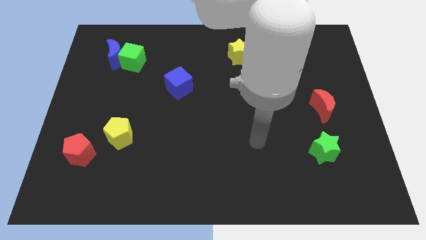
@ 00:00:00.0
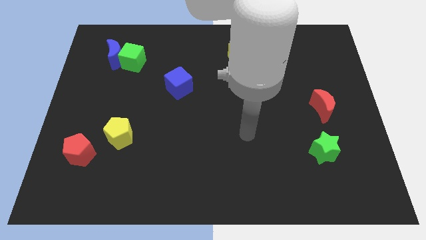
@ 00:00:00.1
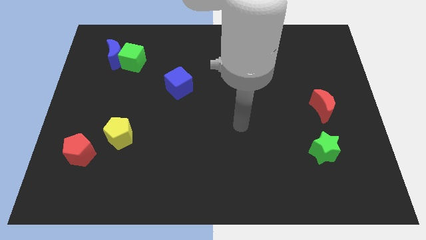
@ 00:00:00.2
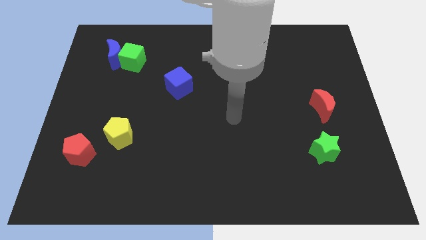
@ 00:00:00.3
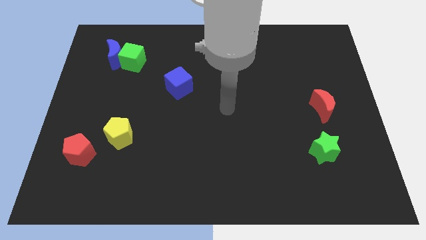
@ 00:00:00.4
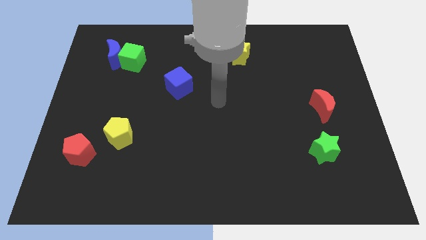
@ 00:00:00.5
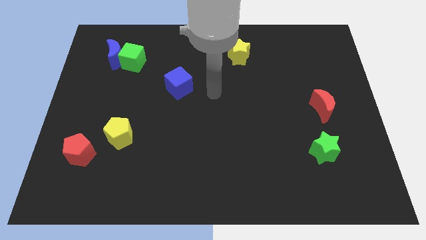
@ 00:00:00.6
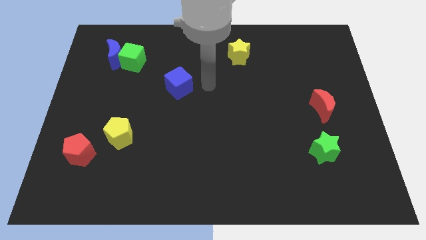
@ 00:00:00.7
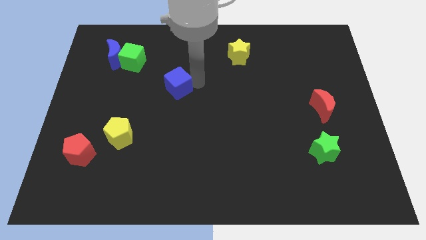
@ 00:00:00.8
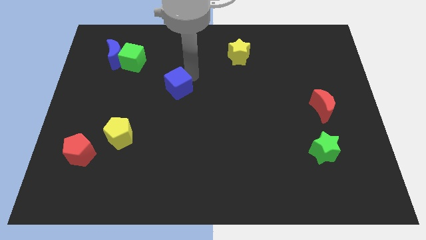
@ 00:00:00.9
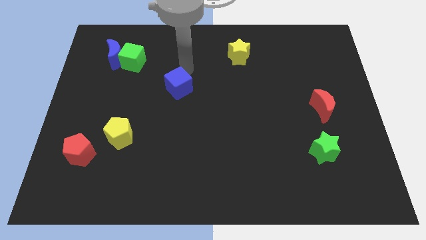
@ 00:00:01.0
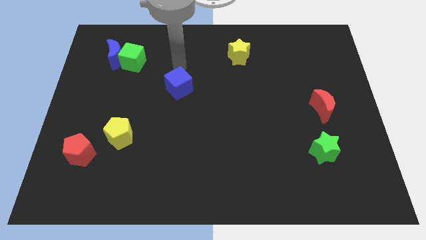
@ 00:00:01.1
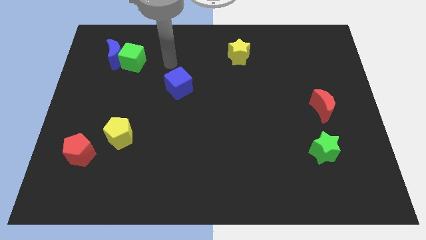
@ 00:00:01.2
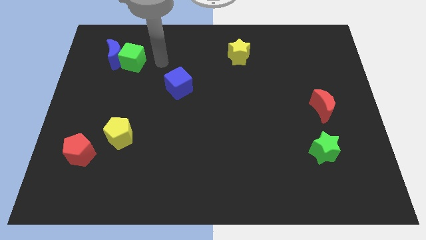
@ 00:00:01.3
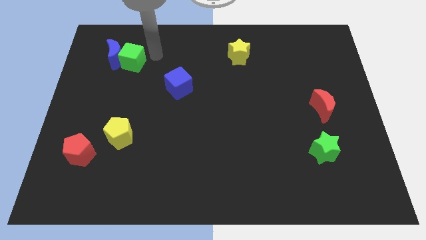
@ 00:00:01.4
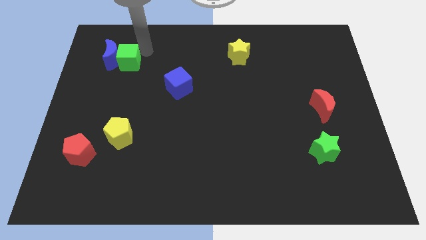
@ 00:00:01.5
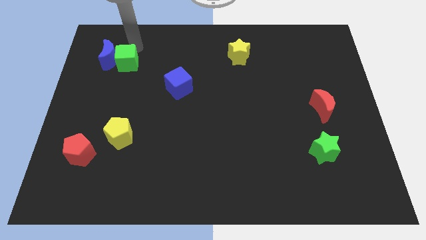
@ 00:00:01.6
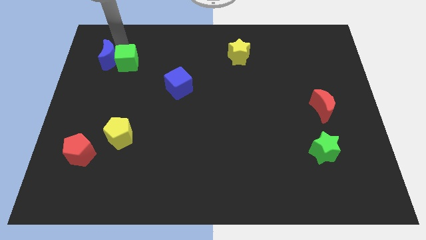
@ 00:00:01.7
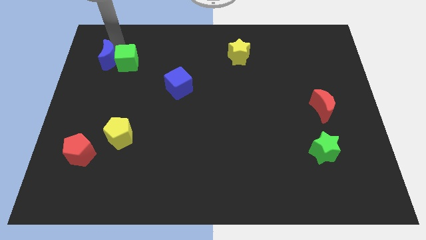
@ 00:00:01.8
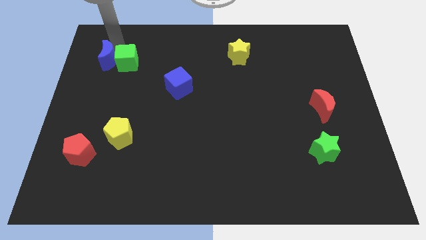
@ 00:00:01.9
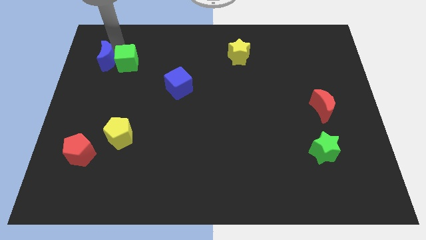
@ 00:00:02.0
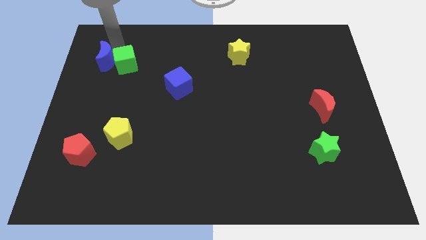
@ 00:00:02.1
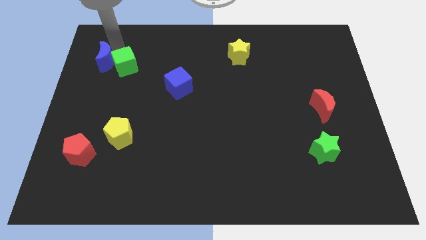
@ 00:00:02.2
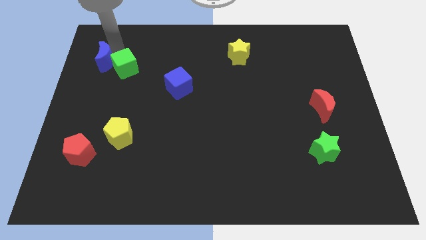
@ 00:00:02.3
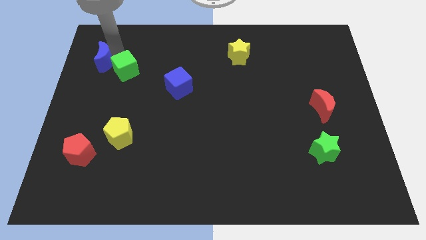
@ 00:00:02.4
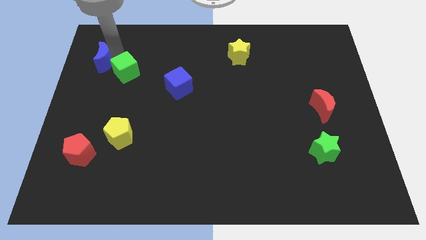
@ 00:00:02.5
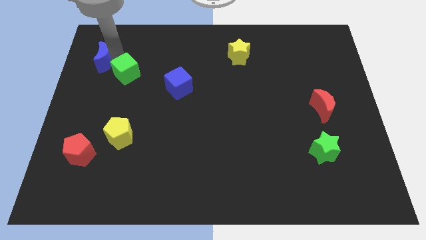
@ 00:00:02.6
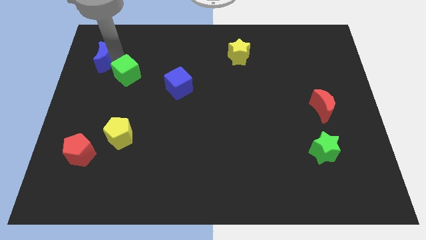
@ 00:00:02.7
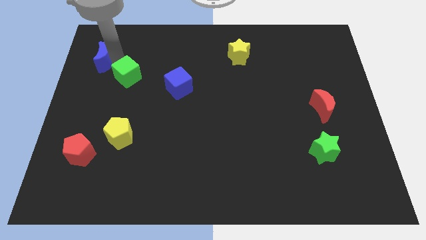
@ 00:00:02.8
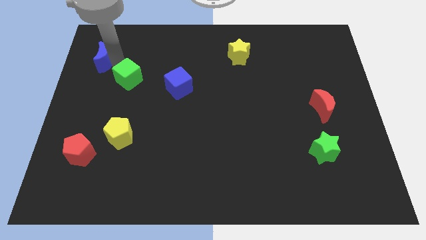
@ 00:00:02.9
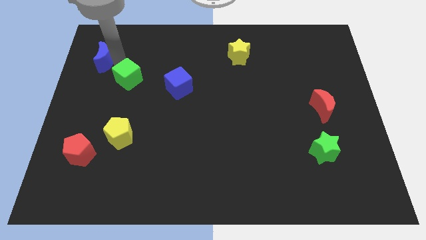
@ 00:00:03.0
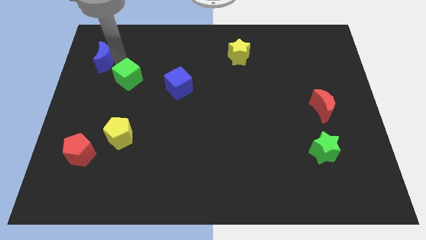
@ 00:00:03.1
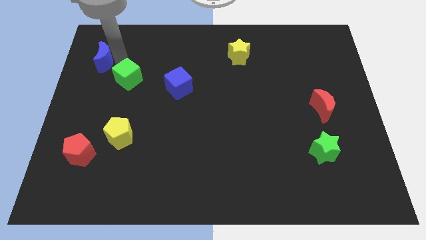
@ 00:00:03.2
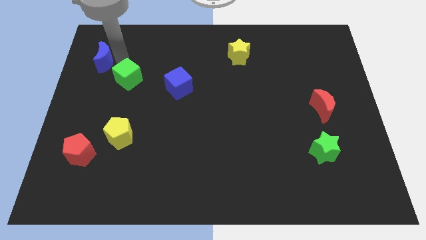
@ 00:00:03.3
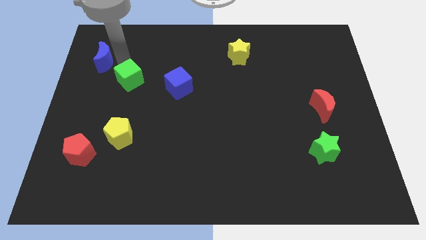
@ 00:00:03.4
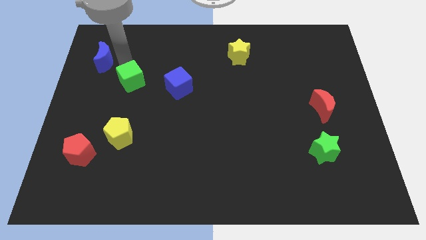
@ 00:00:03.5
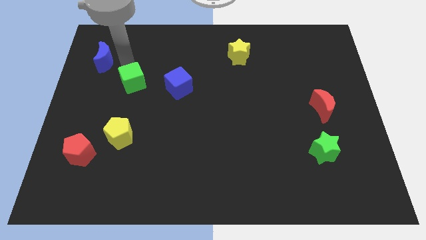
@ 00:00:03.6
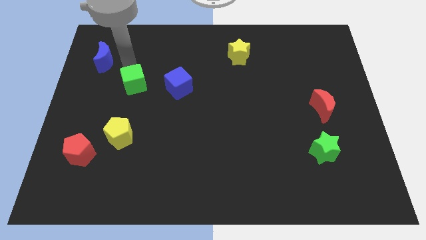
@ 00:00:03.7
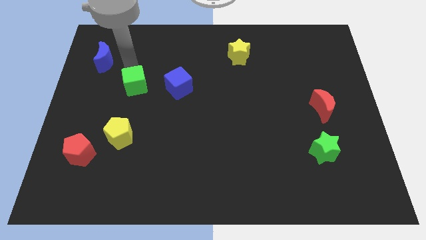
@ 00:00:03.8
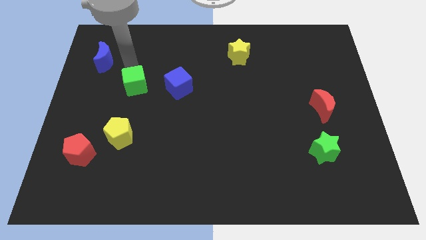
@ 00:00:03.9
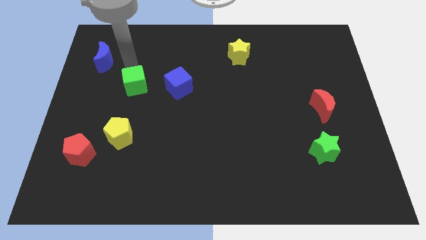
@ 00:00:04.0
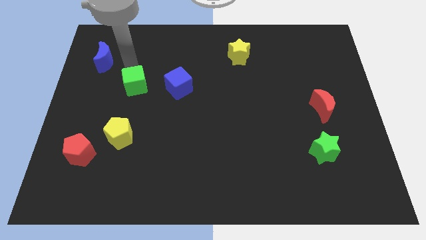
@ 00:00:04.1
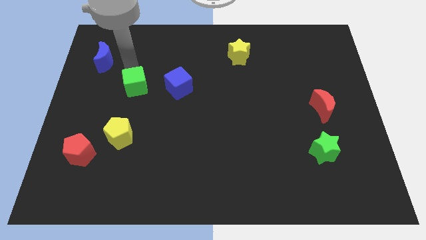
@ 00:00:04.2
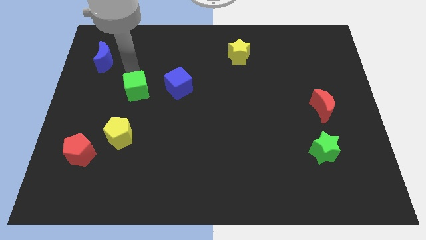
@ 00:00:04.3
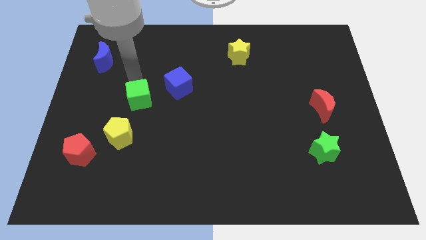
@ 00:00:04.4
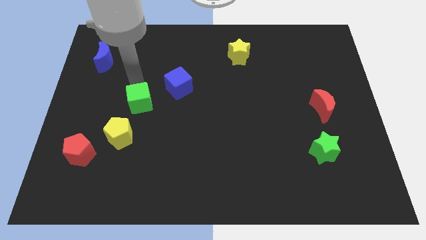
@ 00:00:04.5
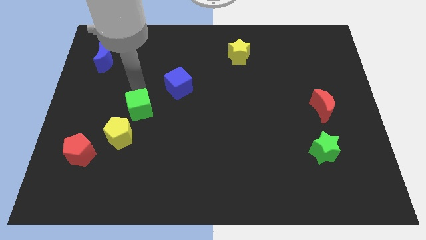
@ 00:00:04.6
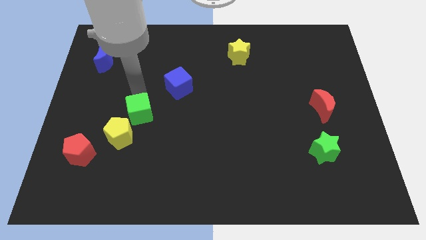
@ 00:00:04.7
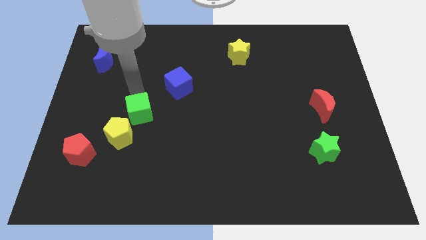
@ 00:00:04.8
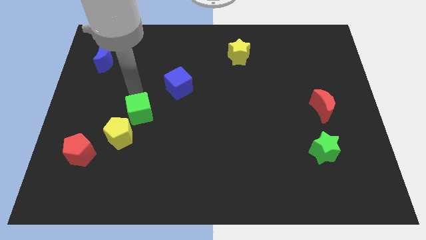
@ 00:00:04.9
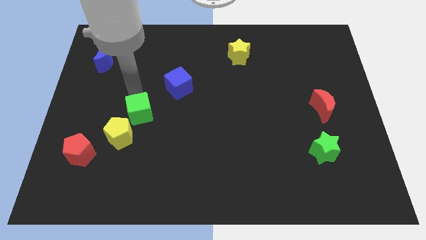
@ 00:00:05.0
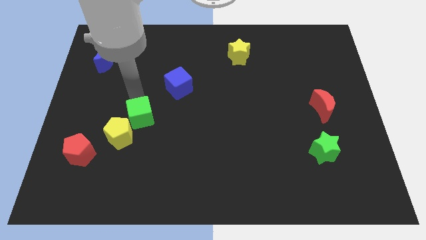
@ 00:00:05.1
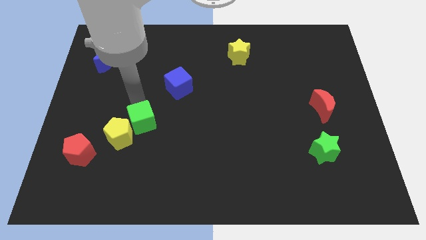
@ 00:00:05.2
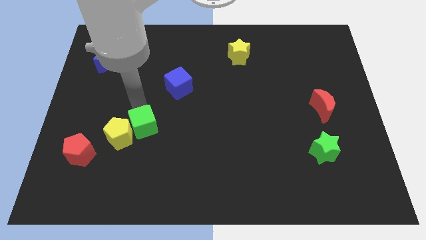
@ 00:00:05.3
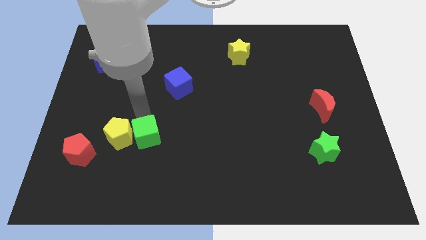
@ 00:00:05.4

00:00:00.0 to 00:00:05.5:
move the green cube diagonally down and to the right of the yellow pentagon
